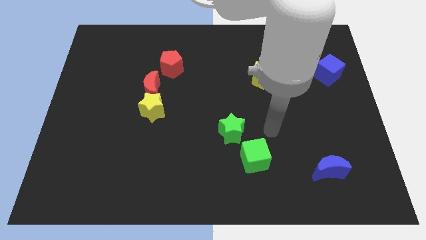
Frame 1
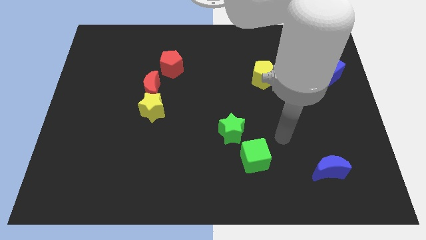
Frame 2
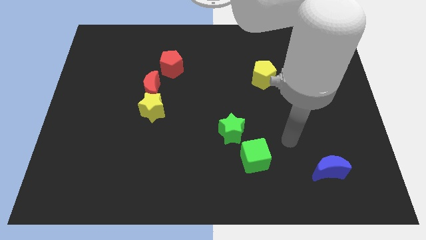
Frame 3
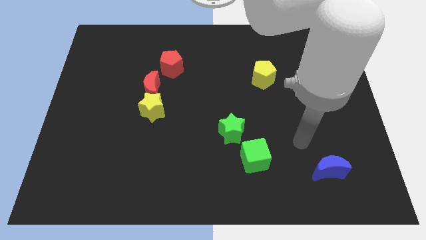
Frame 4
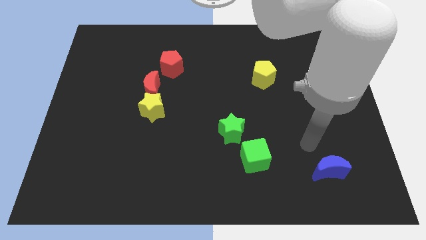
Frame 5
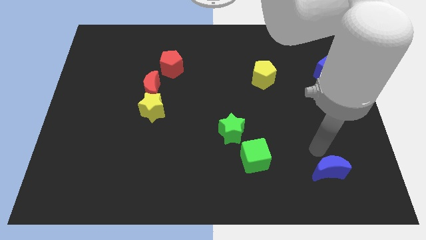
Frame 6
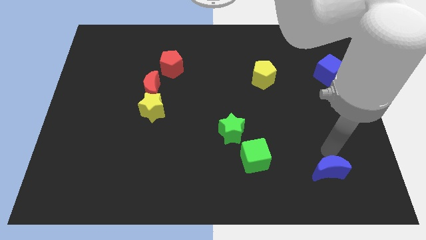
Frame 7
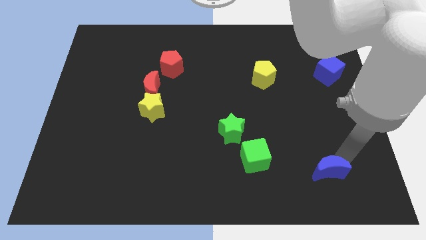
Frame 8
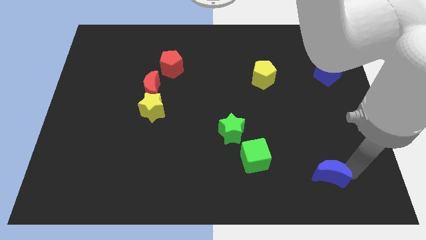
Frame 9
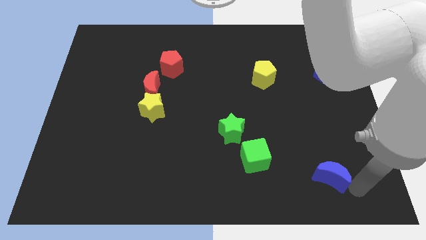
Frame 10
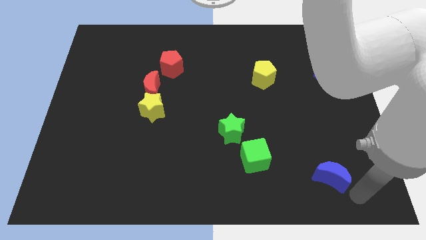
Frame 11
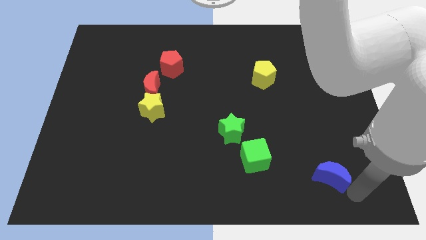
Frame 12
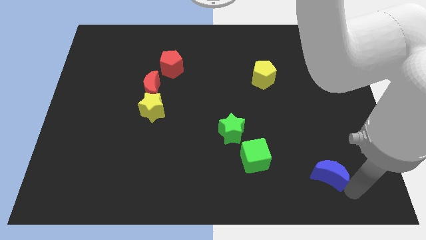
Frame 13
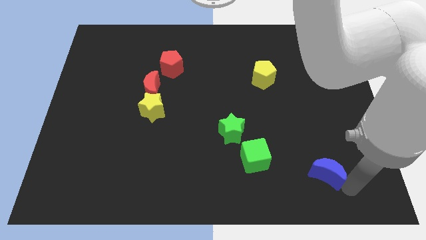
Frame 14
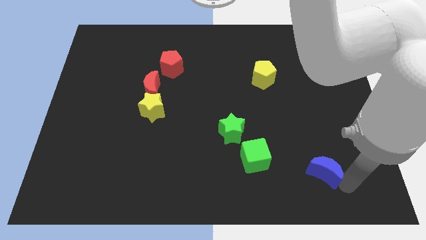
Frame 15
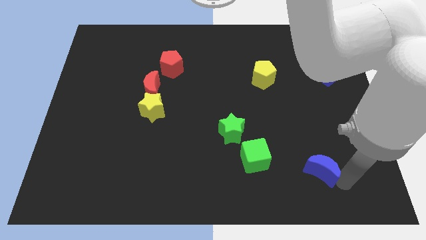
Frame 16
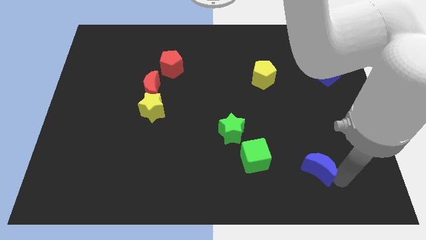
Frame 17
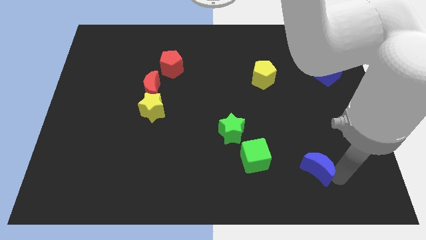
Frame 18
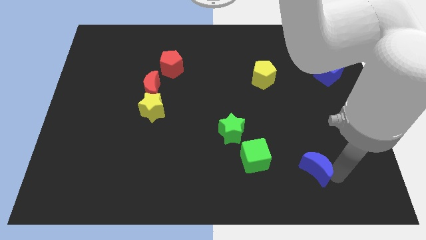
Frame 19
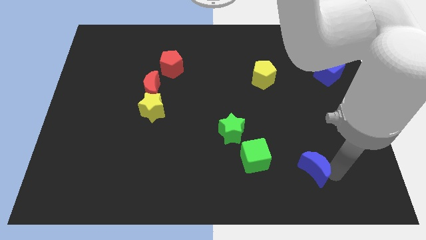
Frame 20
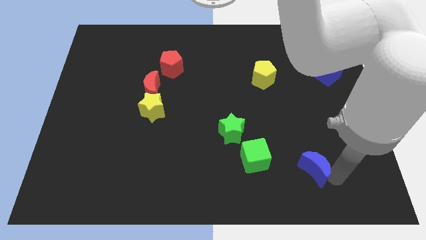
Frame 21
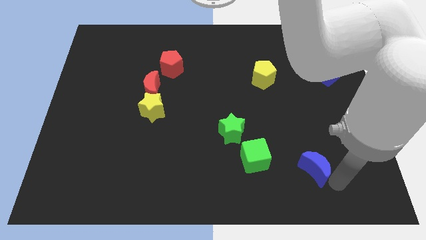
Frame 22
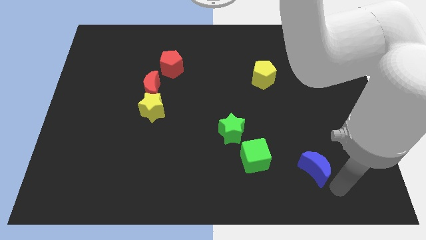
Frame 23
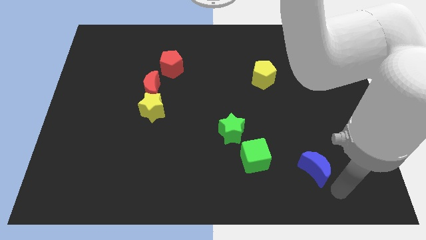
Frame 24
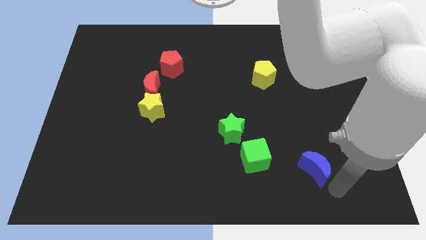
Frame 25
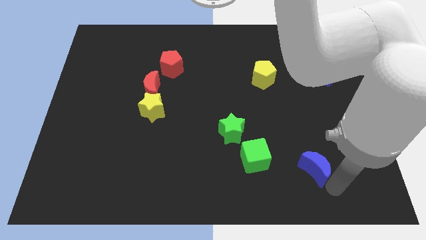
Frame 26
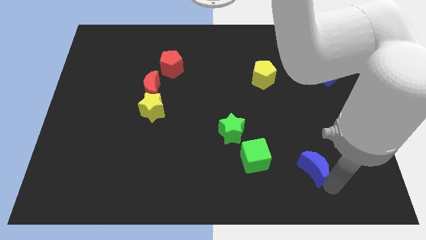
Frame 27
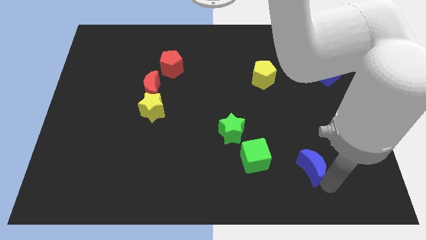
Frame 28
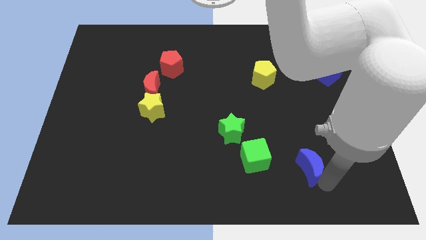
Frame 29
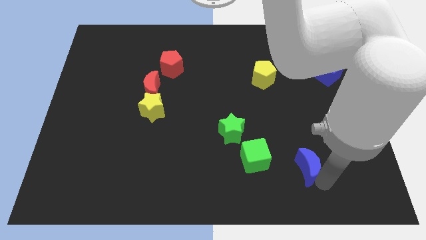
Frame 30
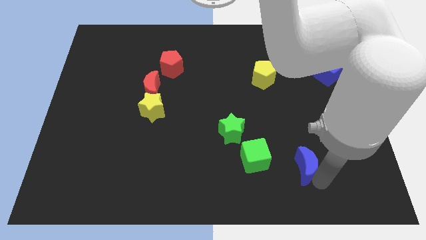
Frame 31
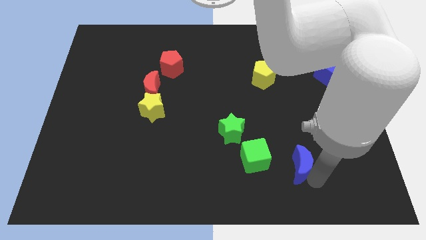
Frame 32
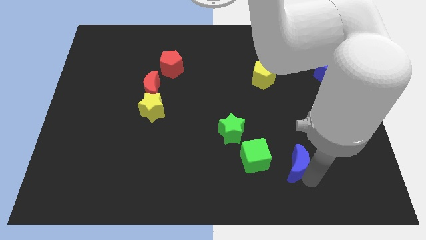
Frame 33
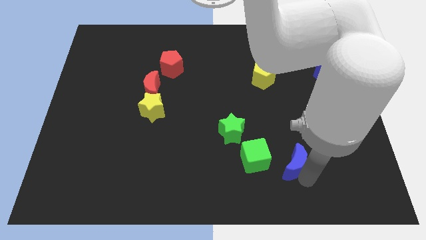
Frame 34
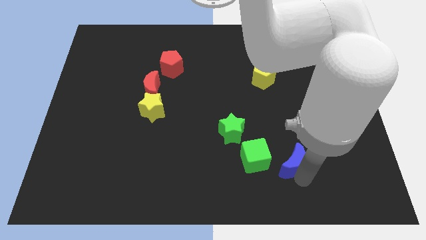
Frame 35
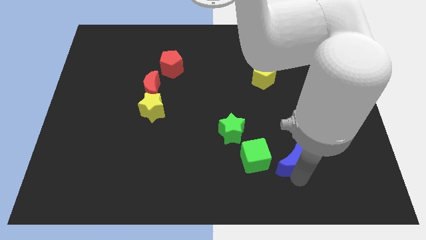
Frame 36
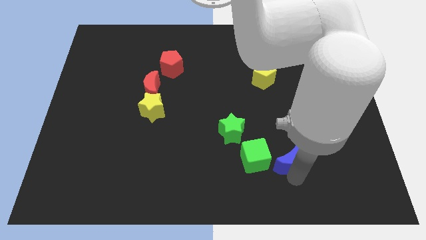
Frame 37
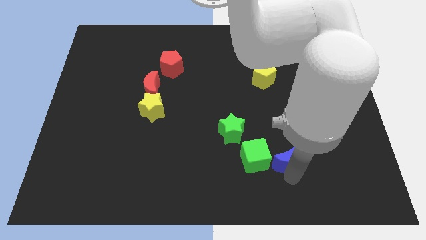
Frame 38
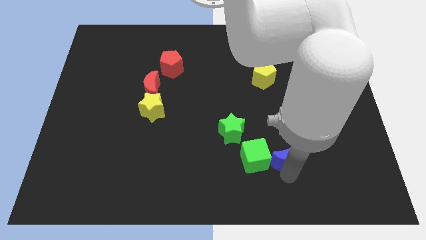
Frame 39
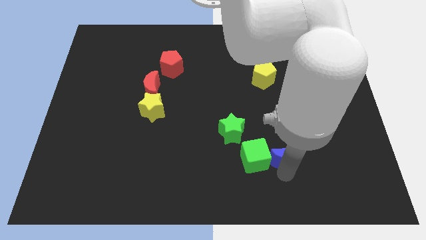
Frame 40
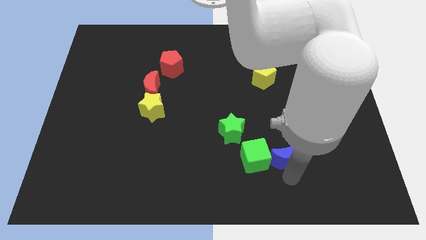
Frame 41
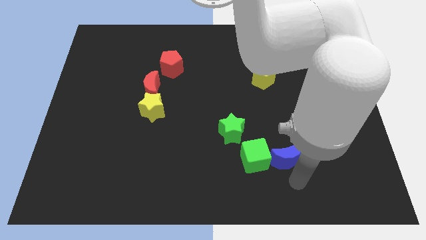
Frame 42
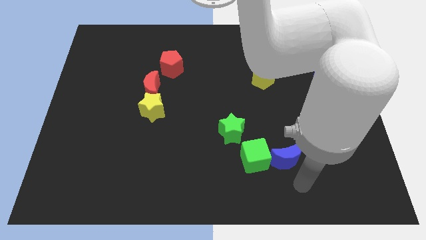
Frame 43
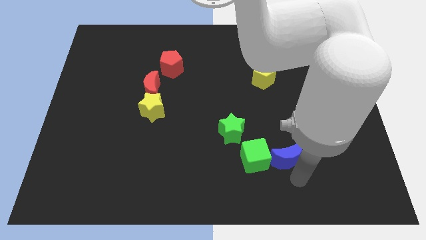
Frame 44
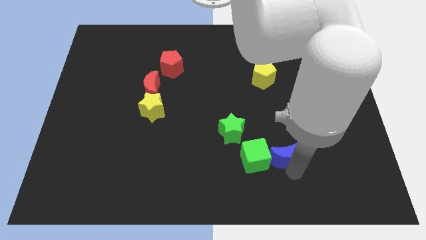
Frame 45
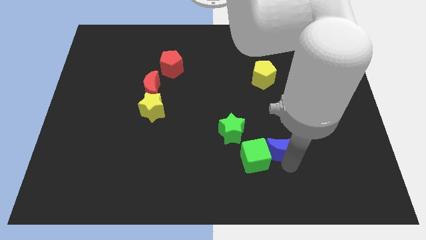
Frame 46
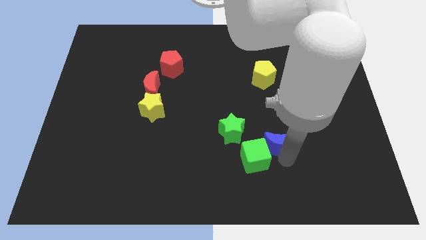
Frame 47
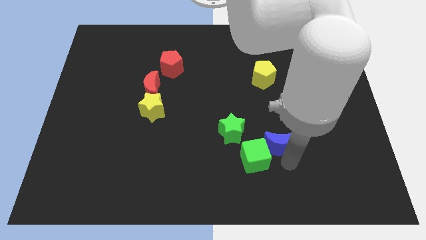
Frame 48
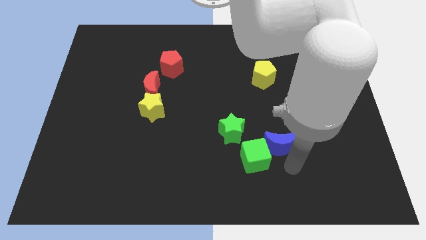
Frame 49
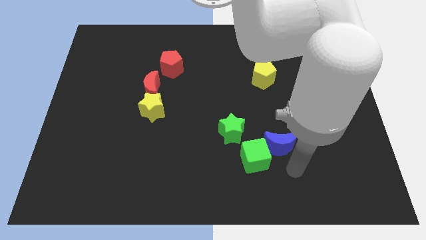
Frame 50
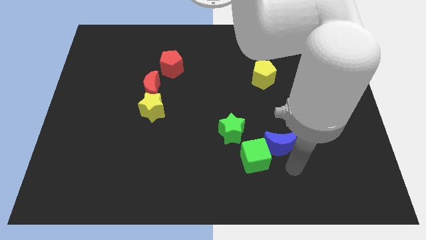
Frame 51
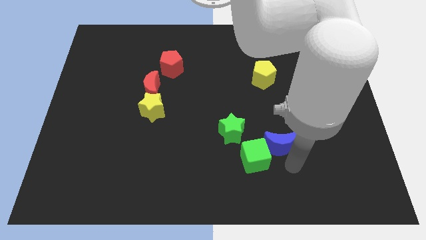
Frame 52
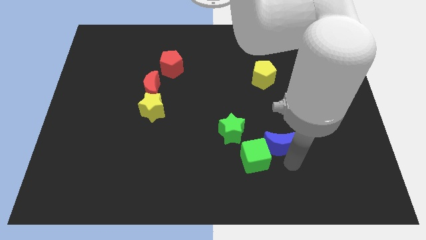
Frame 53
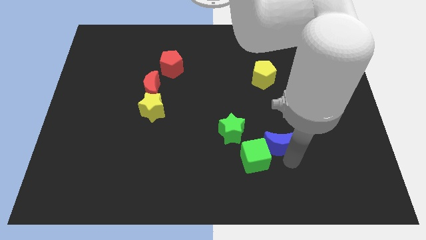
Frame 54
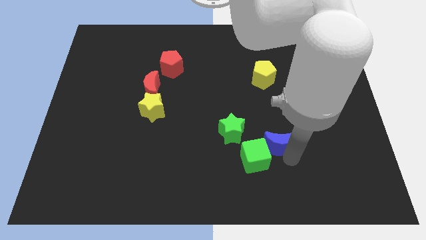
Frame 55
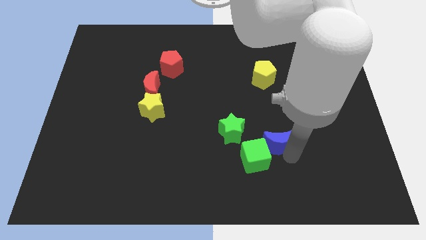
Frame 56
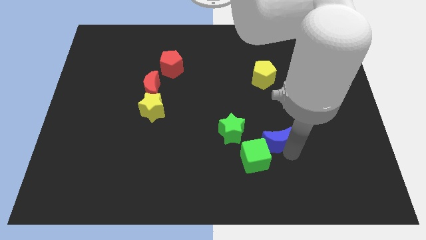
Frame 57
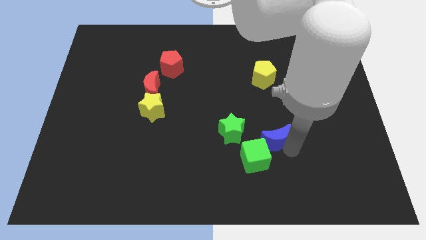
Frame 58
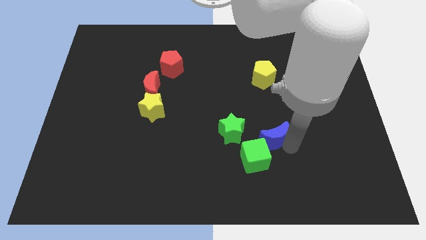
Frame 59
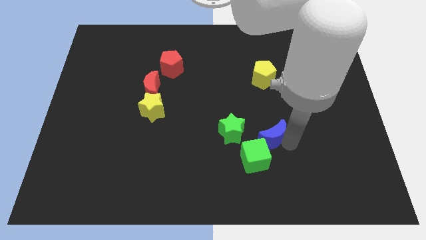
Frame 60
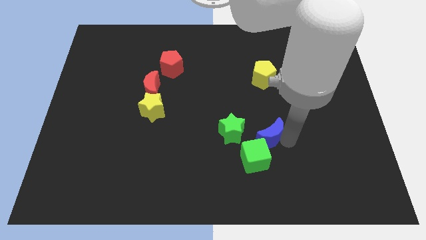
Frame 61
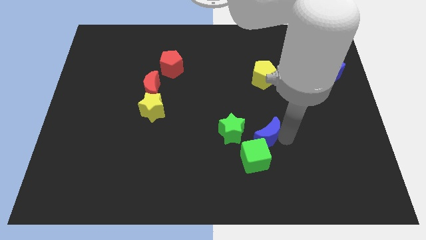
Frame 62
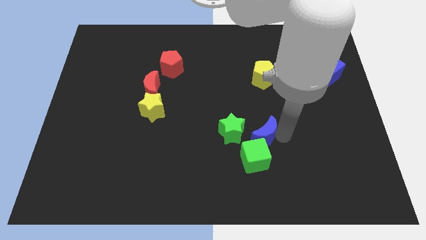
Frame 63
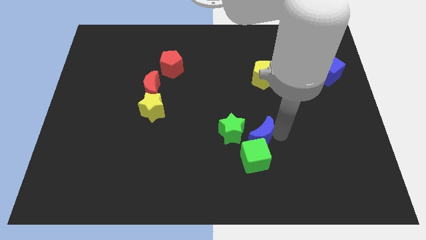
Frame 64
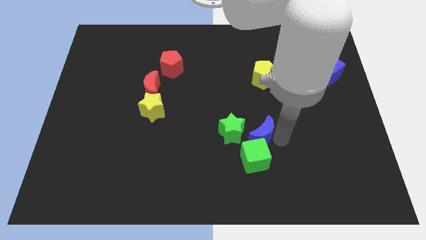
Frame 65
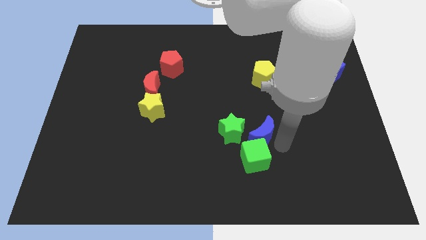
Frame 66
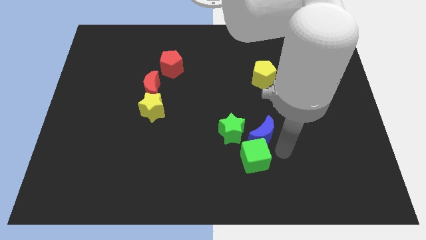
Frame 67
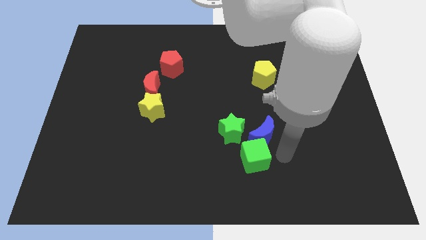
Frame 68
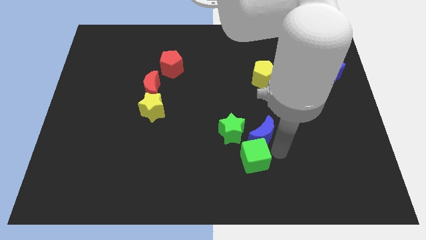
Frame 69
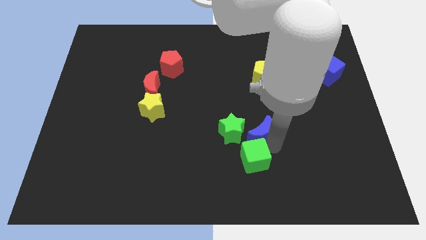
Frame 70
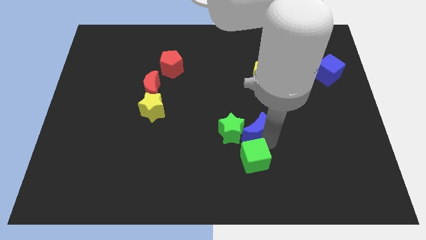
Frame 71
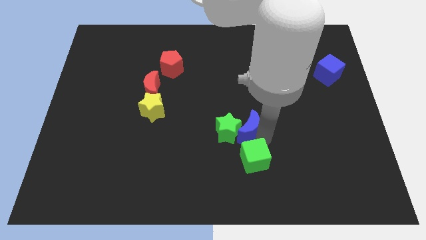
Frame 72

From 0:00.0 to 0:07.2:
move the blue moon to the center
